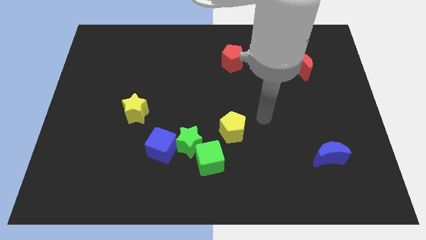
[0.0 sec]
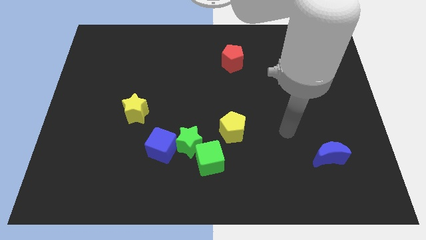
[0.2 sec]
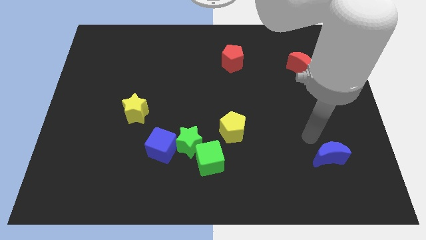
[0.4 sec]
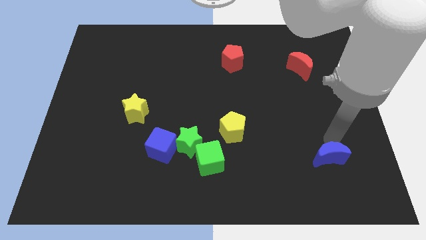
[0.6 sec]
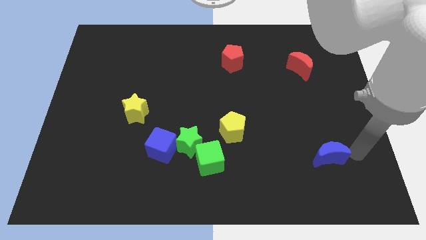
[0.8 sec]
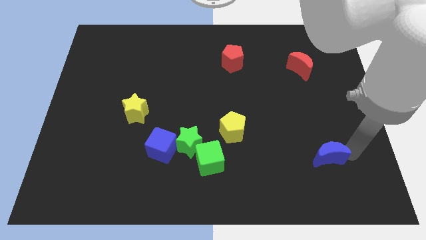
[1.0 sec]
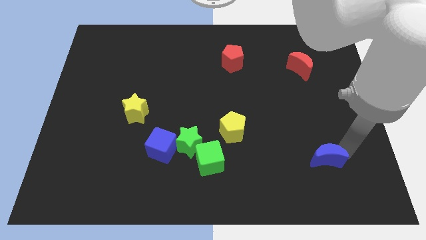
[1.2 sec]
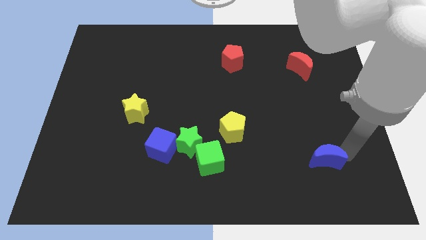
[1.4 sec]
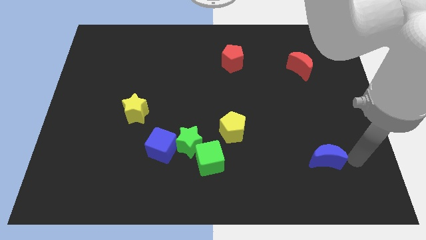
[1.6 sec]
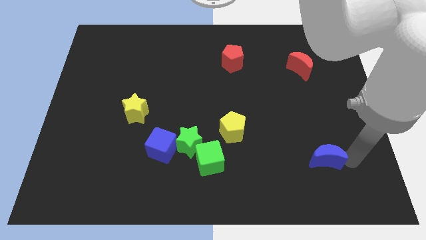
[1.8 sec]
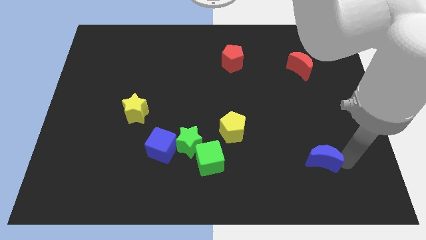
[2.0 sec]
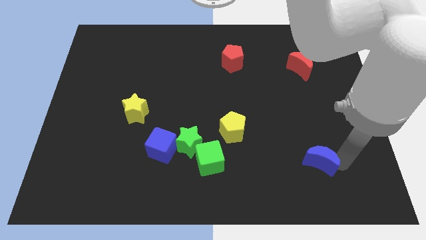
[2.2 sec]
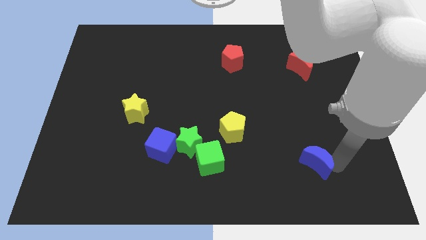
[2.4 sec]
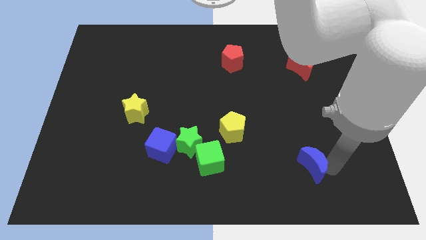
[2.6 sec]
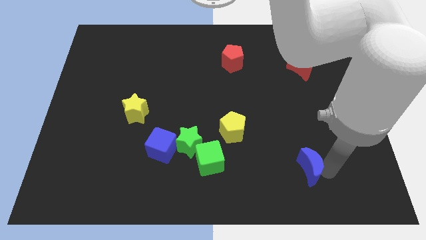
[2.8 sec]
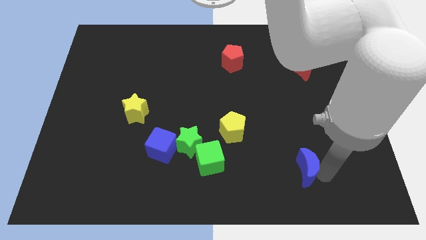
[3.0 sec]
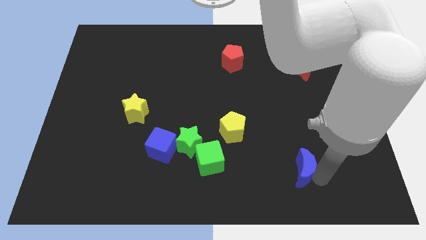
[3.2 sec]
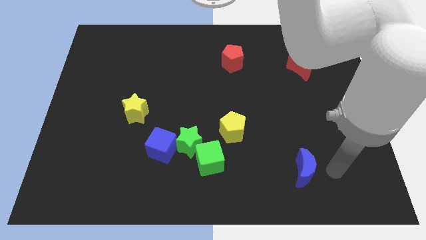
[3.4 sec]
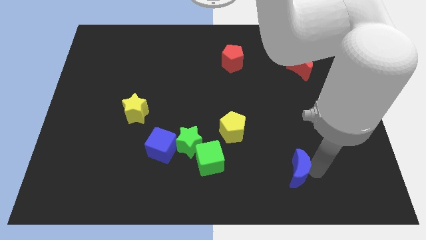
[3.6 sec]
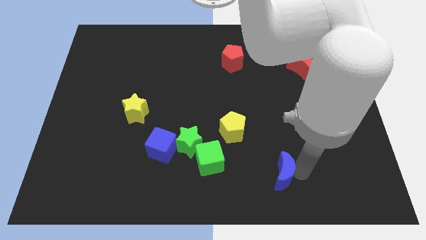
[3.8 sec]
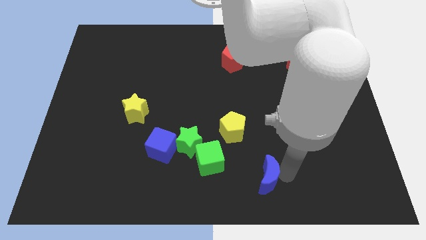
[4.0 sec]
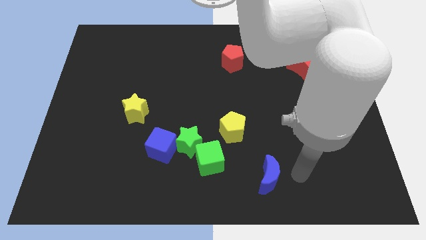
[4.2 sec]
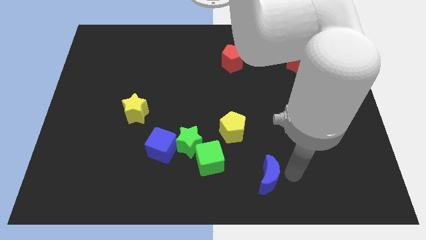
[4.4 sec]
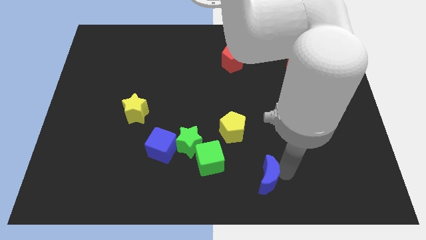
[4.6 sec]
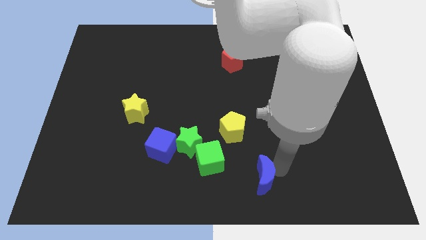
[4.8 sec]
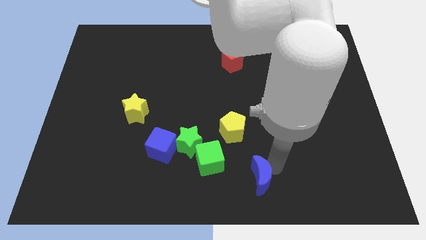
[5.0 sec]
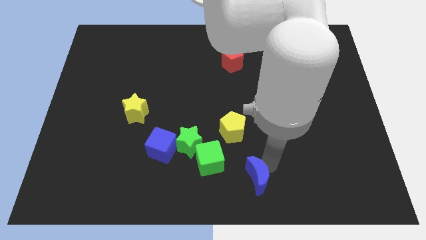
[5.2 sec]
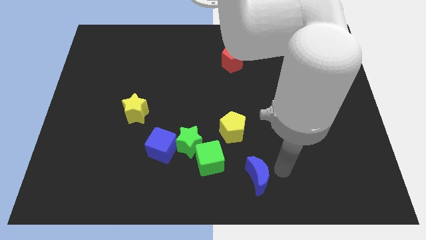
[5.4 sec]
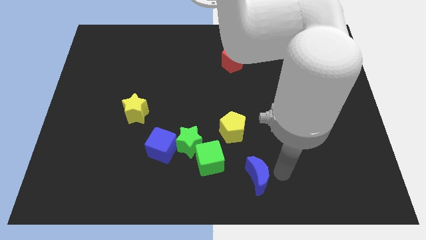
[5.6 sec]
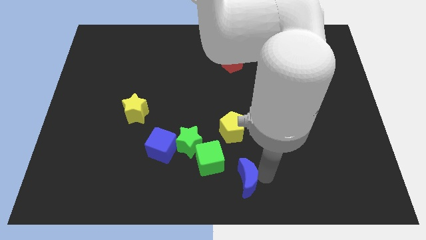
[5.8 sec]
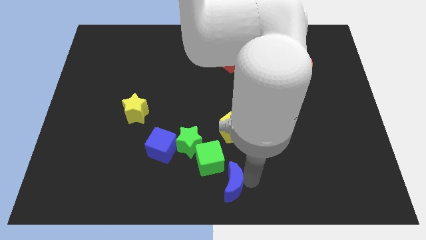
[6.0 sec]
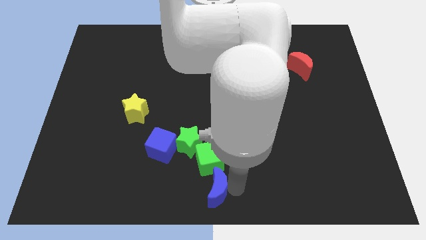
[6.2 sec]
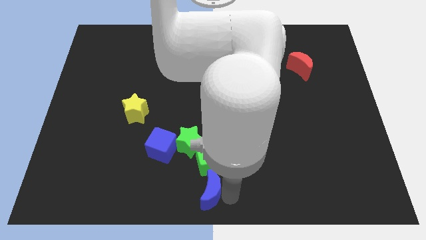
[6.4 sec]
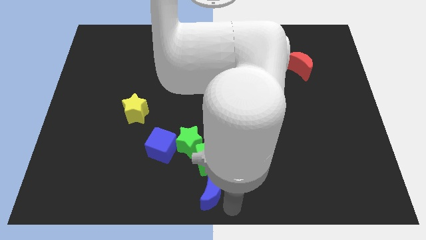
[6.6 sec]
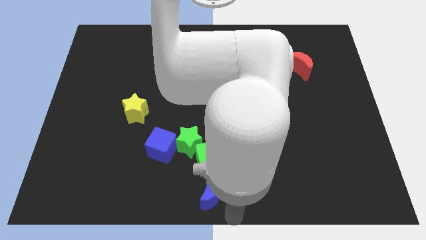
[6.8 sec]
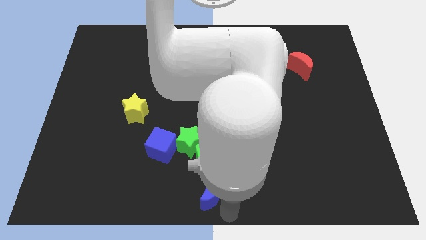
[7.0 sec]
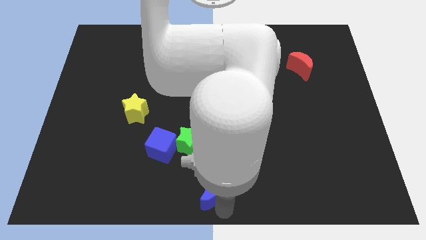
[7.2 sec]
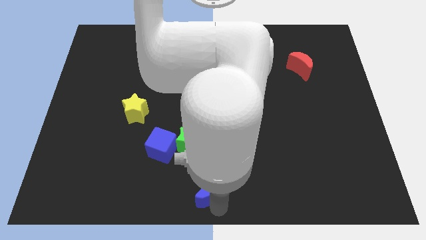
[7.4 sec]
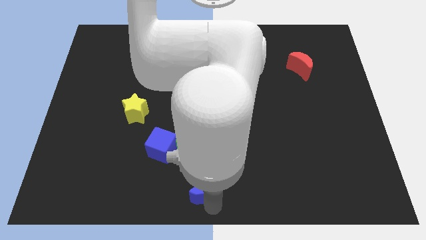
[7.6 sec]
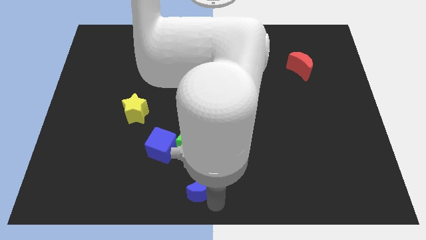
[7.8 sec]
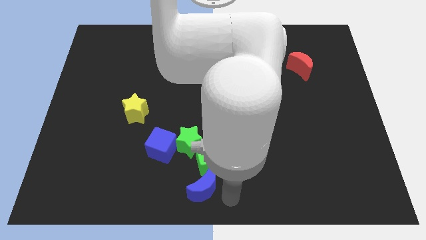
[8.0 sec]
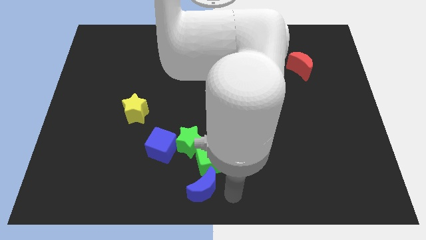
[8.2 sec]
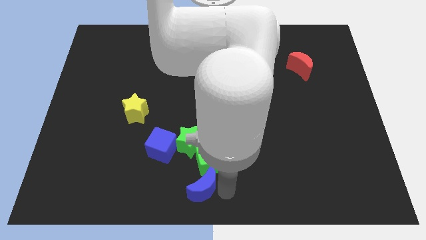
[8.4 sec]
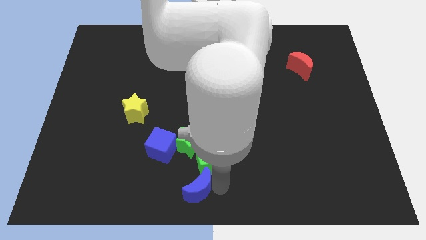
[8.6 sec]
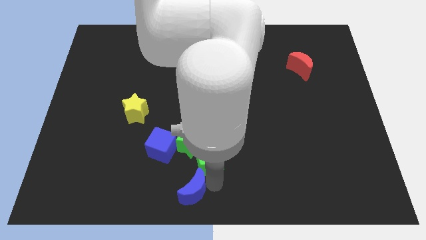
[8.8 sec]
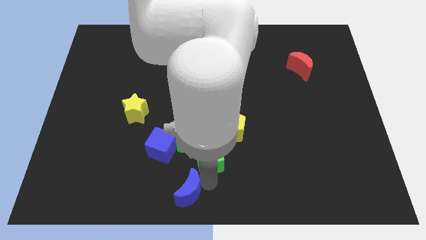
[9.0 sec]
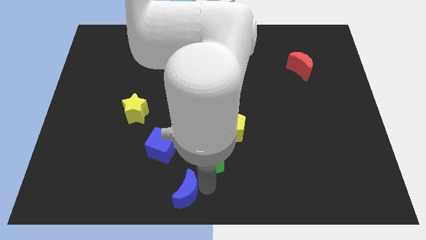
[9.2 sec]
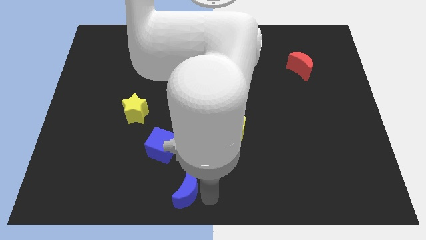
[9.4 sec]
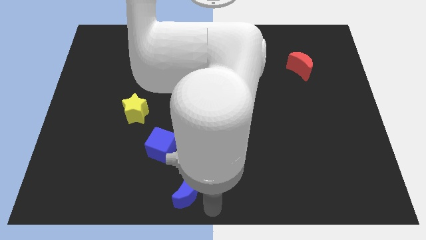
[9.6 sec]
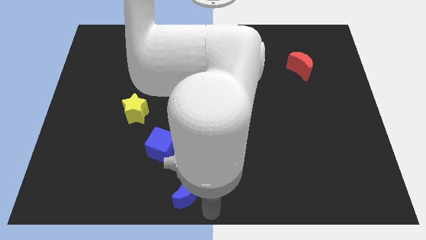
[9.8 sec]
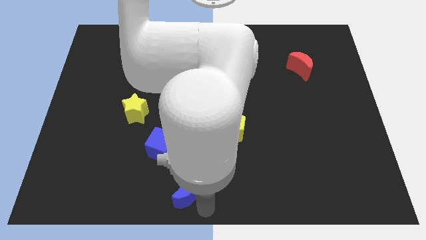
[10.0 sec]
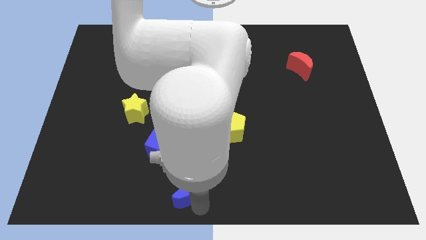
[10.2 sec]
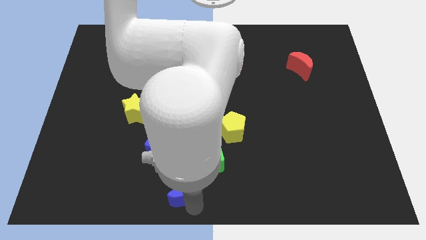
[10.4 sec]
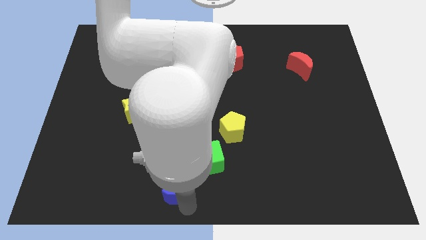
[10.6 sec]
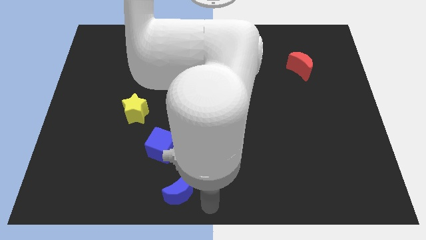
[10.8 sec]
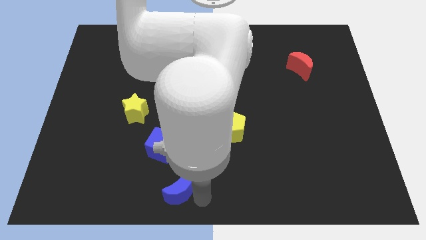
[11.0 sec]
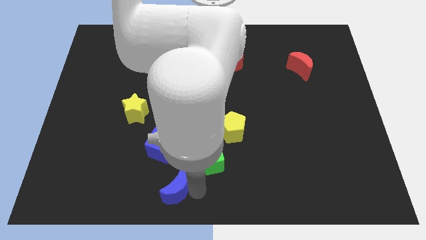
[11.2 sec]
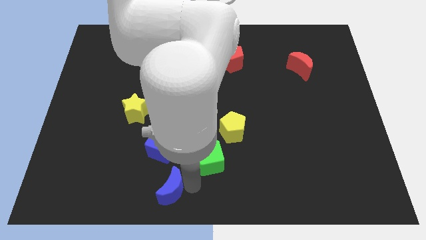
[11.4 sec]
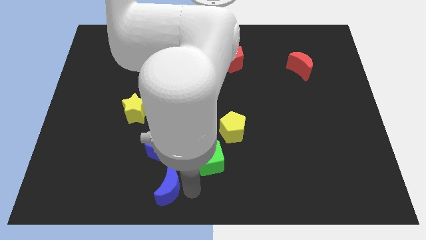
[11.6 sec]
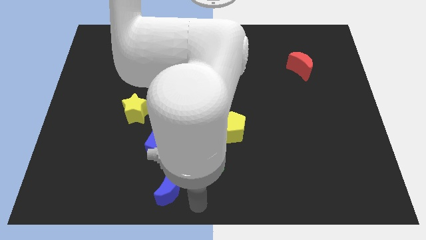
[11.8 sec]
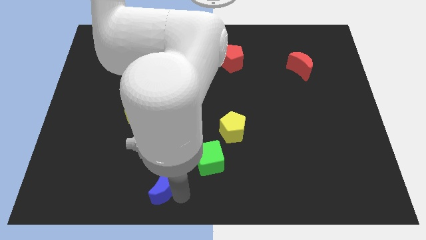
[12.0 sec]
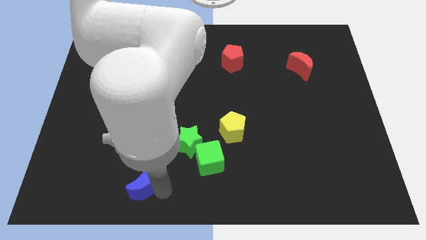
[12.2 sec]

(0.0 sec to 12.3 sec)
move the blue moon to the bottom left of the blue cube

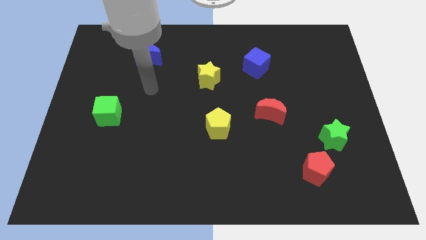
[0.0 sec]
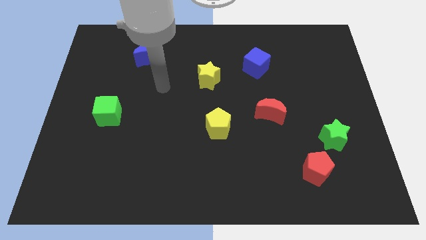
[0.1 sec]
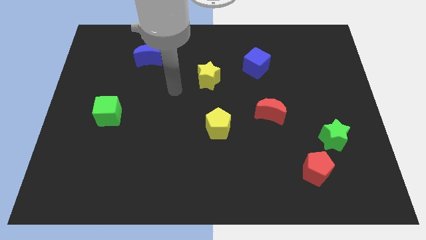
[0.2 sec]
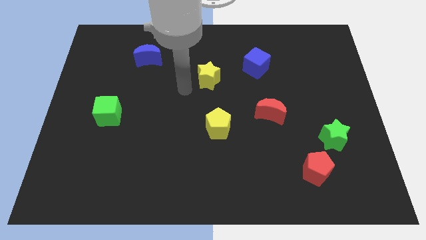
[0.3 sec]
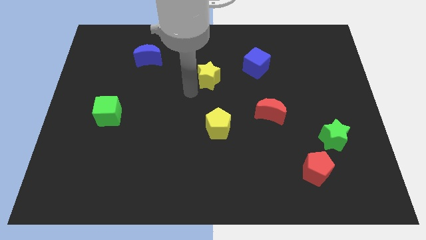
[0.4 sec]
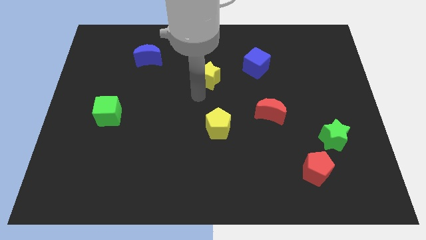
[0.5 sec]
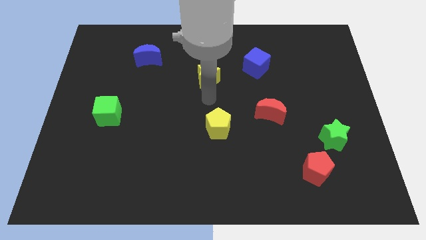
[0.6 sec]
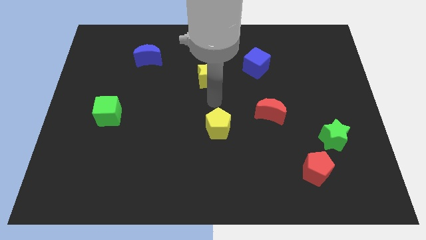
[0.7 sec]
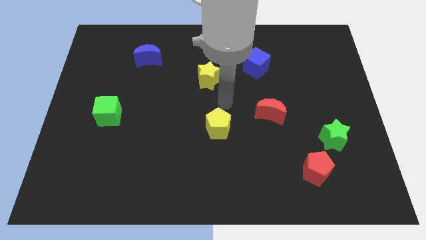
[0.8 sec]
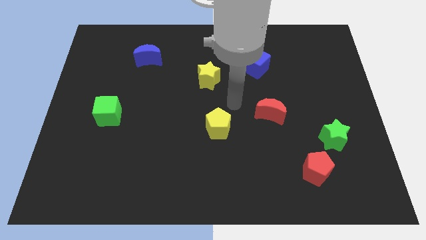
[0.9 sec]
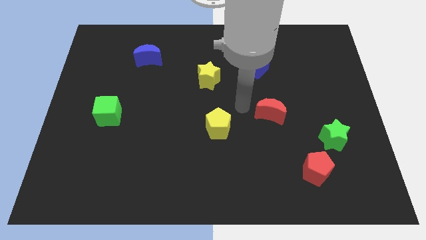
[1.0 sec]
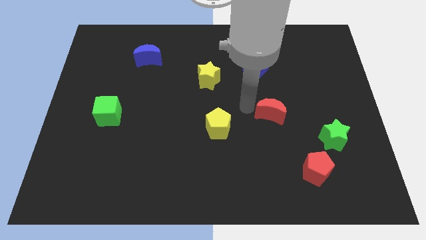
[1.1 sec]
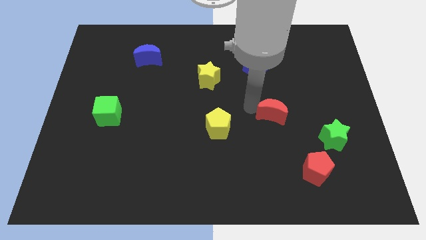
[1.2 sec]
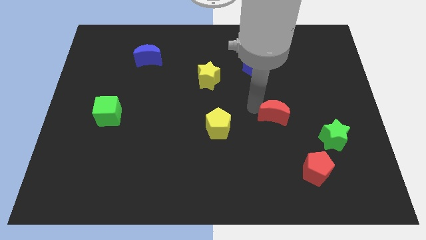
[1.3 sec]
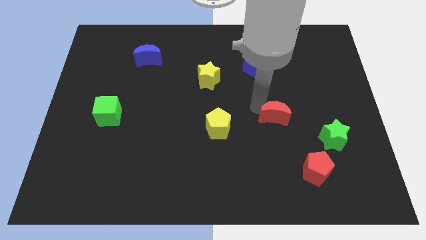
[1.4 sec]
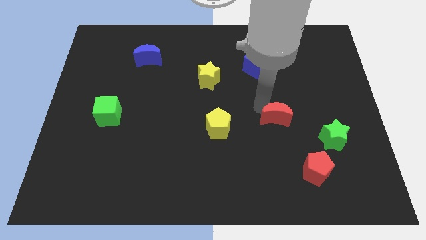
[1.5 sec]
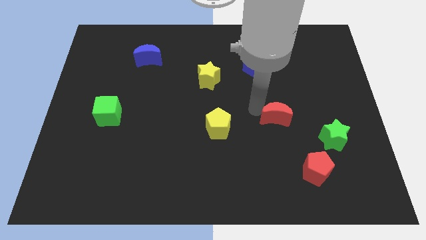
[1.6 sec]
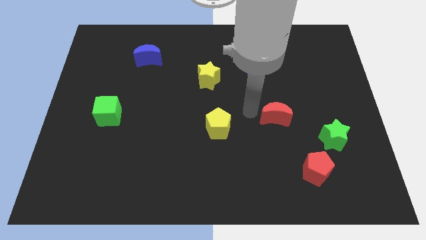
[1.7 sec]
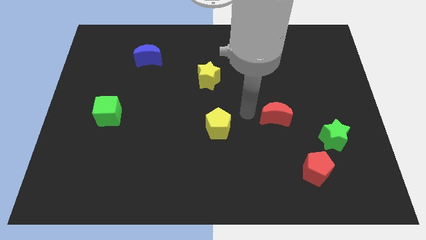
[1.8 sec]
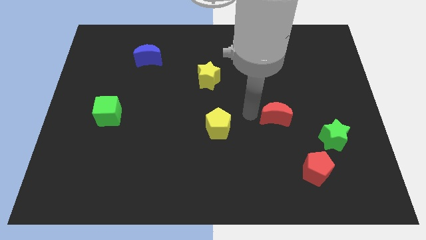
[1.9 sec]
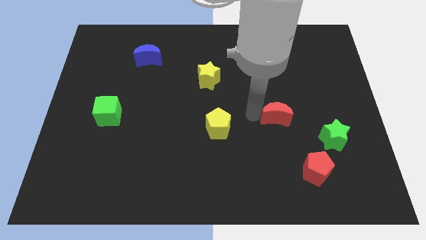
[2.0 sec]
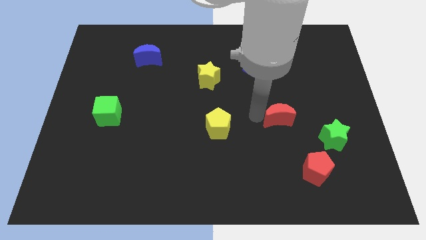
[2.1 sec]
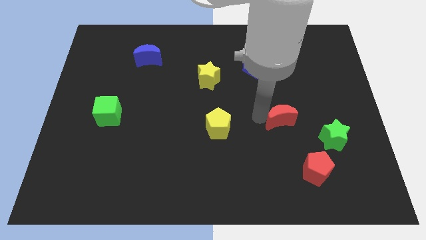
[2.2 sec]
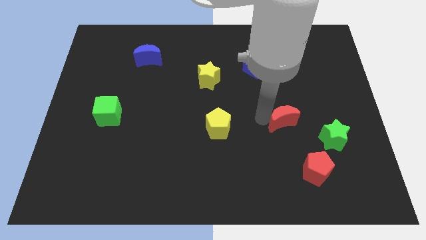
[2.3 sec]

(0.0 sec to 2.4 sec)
put the red moon diagonally up and to the left of the green star
